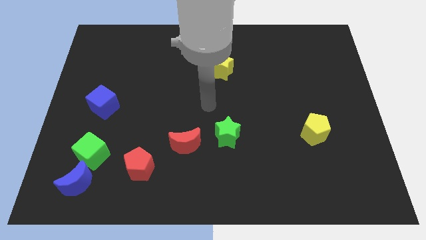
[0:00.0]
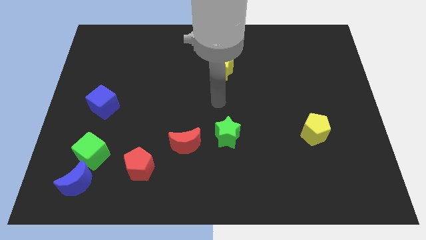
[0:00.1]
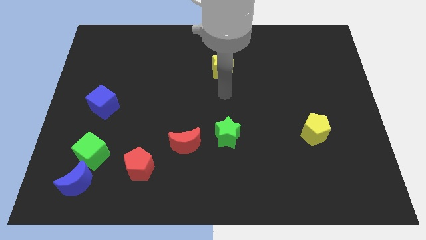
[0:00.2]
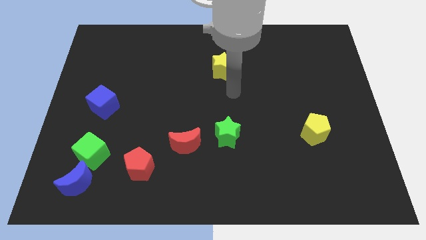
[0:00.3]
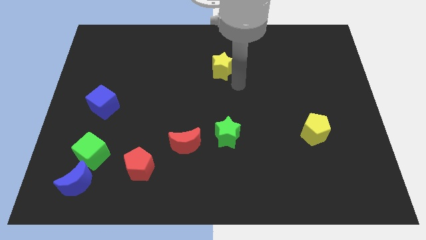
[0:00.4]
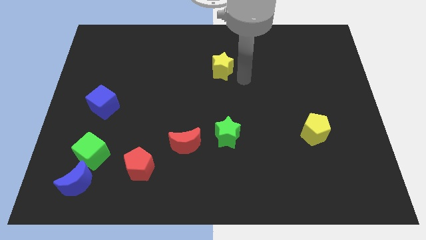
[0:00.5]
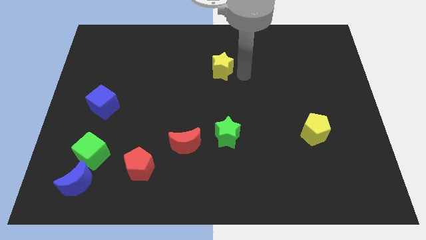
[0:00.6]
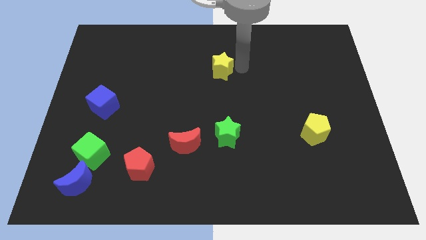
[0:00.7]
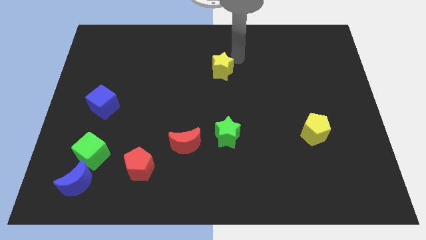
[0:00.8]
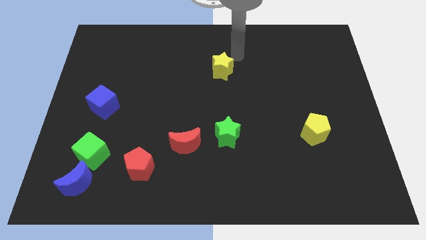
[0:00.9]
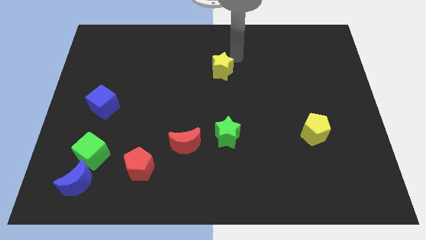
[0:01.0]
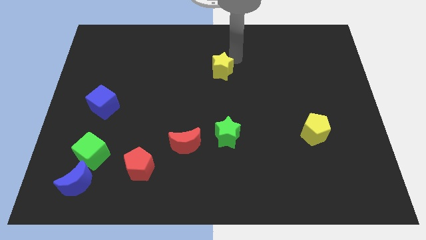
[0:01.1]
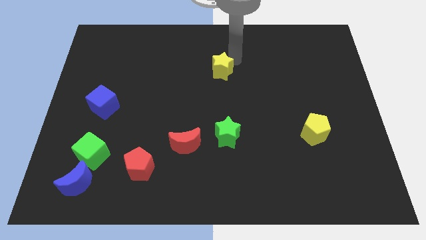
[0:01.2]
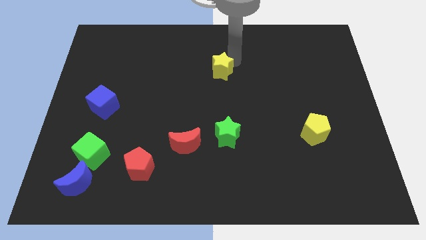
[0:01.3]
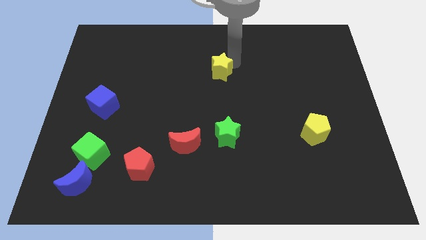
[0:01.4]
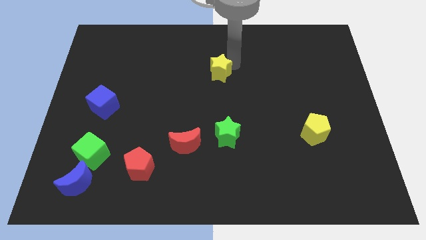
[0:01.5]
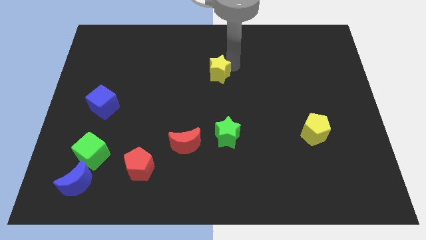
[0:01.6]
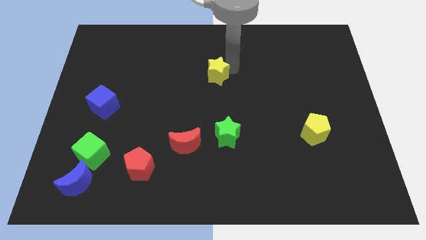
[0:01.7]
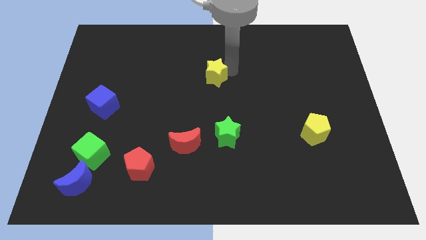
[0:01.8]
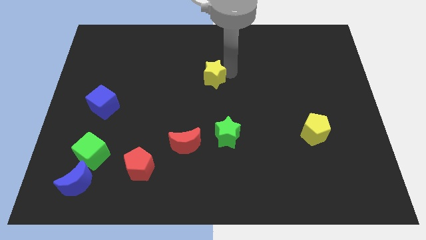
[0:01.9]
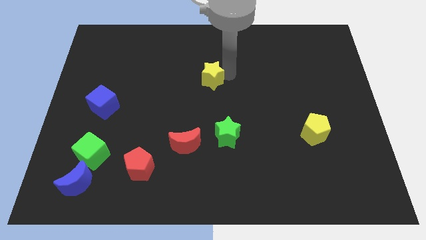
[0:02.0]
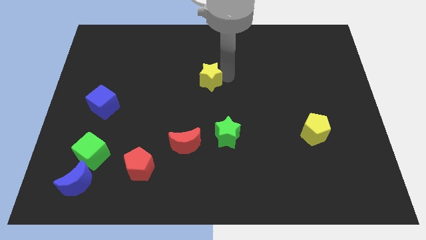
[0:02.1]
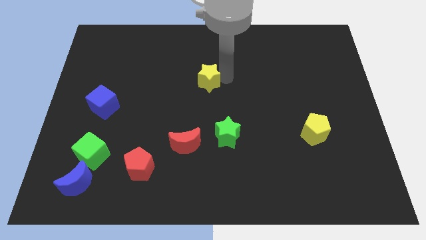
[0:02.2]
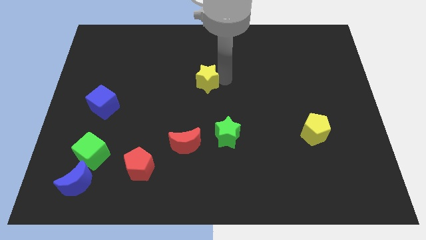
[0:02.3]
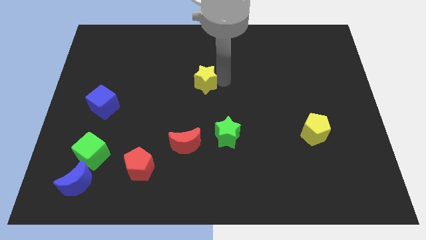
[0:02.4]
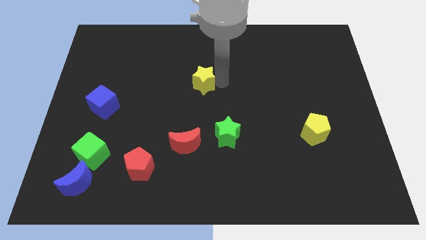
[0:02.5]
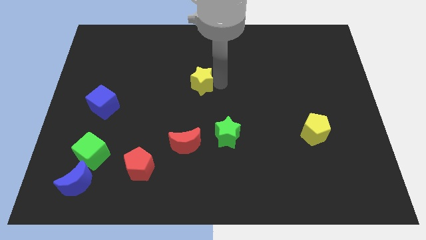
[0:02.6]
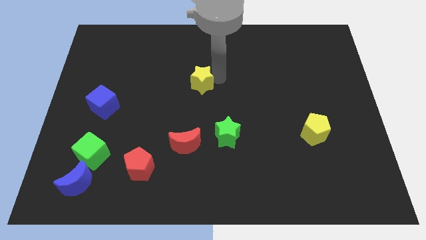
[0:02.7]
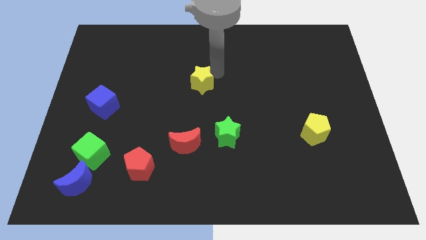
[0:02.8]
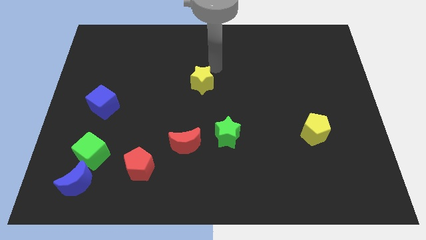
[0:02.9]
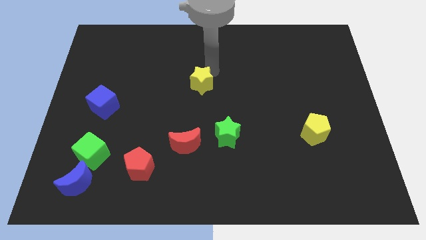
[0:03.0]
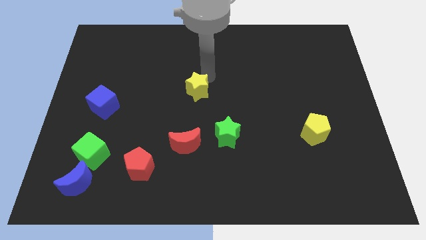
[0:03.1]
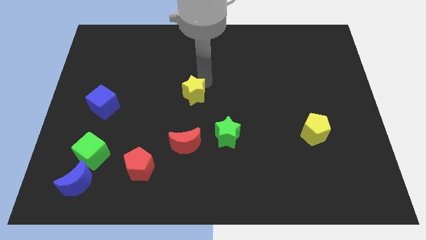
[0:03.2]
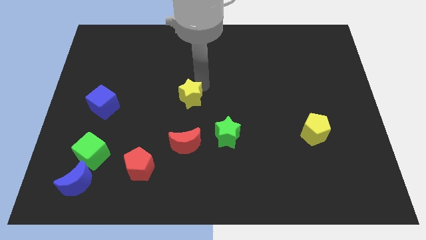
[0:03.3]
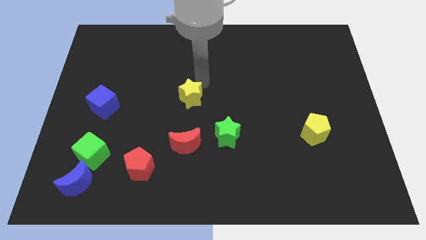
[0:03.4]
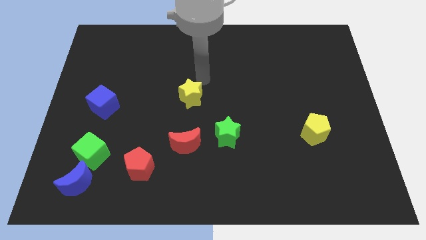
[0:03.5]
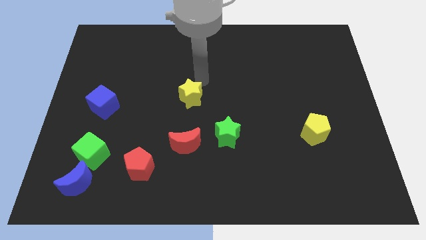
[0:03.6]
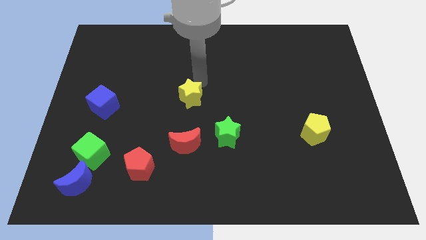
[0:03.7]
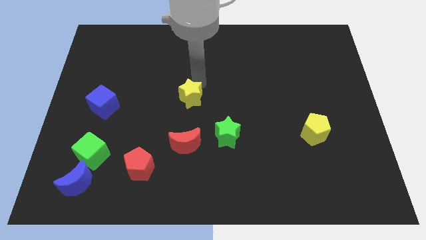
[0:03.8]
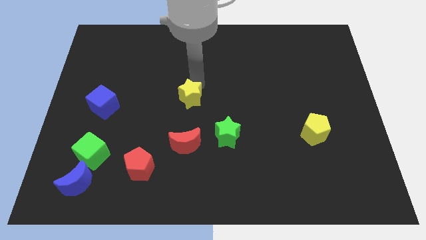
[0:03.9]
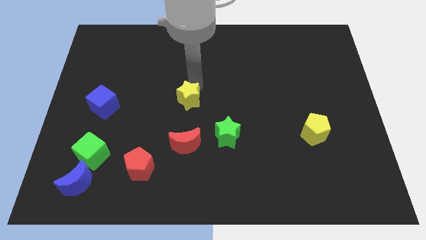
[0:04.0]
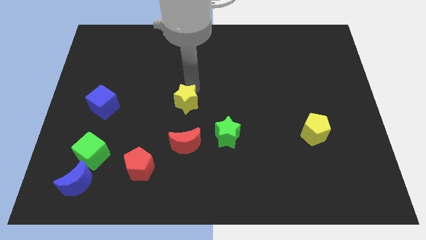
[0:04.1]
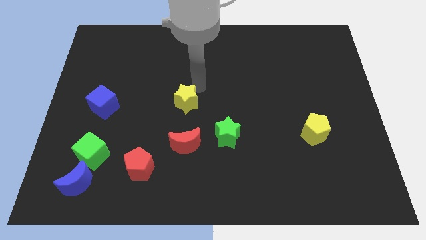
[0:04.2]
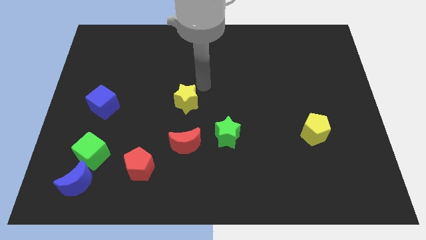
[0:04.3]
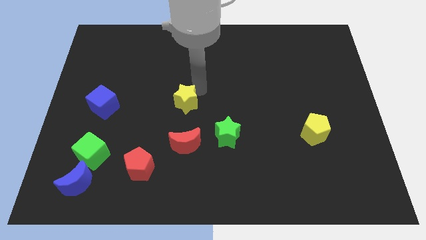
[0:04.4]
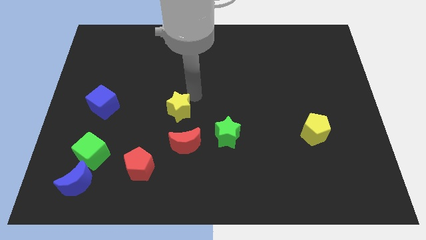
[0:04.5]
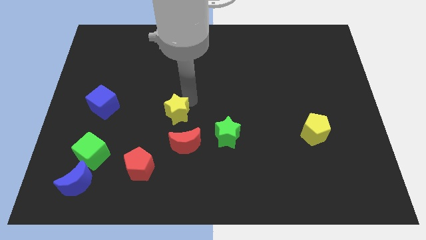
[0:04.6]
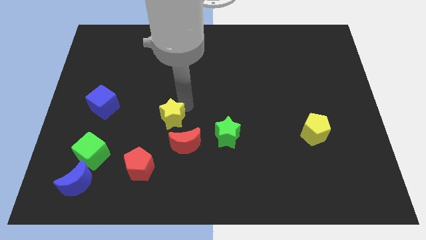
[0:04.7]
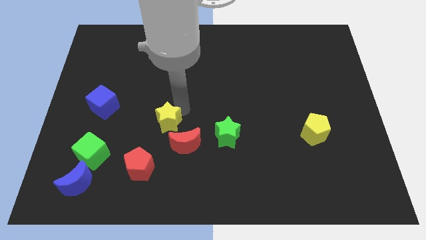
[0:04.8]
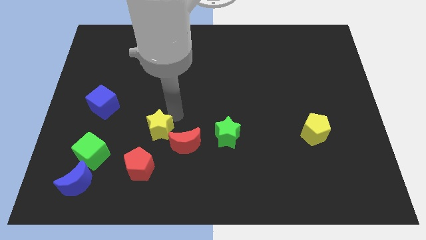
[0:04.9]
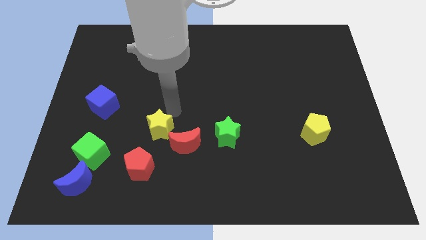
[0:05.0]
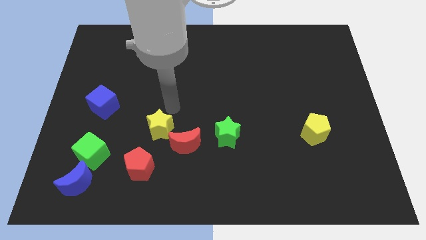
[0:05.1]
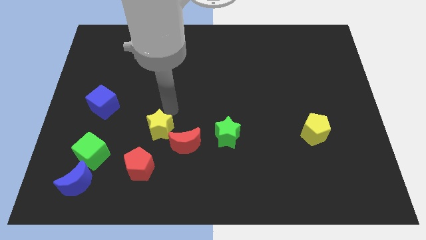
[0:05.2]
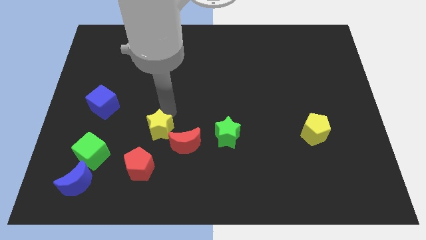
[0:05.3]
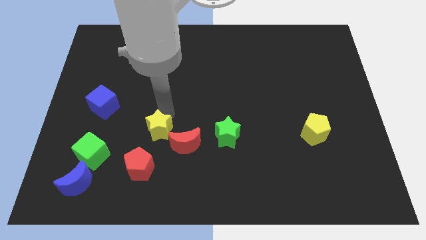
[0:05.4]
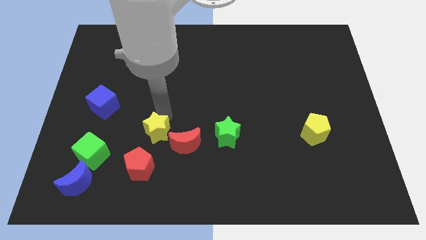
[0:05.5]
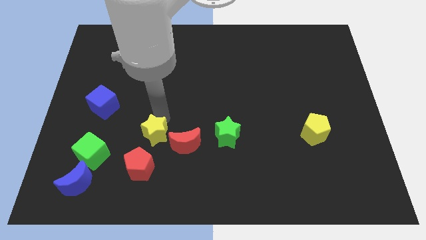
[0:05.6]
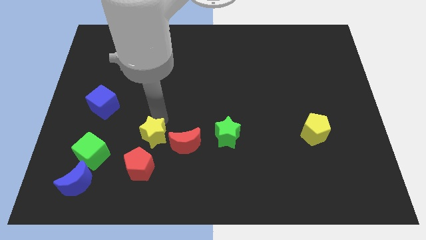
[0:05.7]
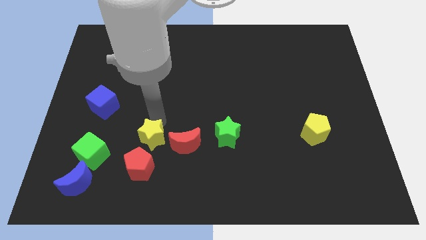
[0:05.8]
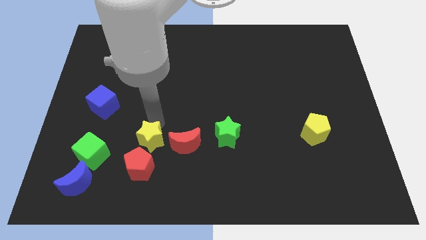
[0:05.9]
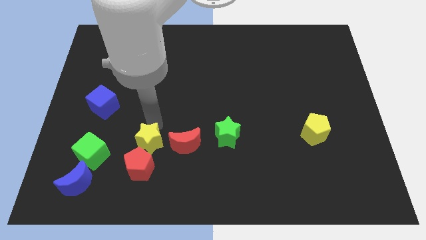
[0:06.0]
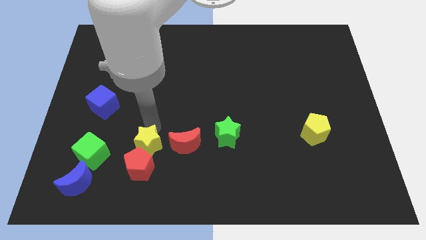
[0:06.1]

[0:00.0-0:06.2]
push the yellow star towards the red pentagon

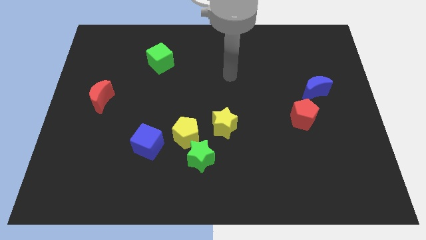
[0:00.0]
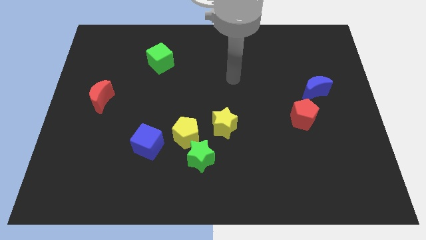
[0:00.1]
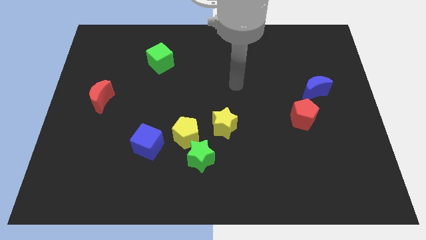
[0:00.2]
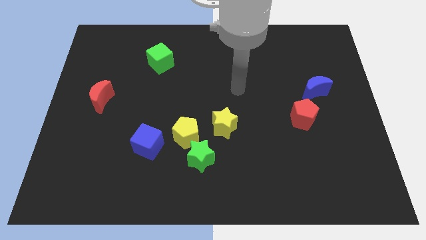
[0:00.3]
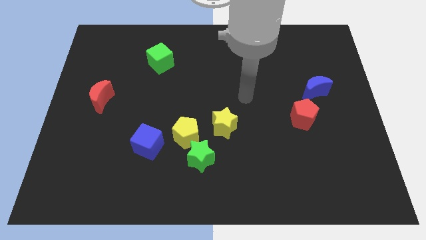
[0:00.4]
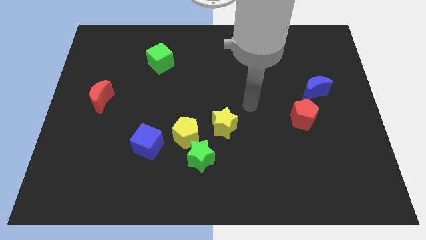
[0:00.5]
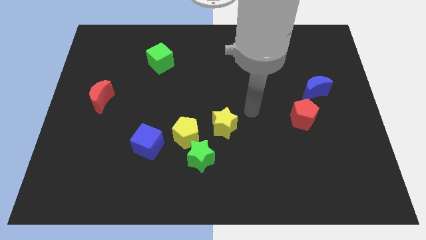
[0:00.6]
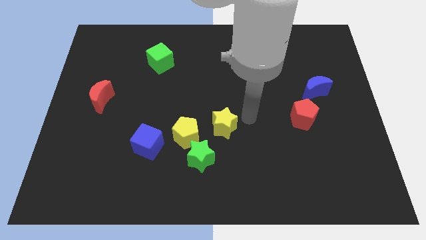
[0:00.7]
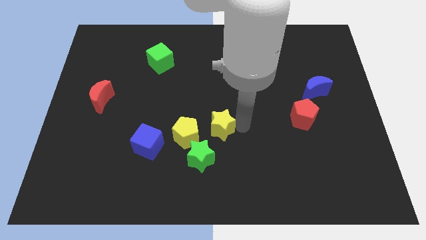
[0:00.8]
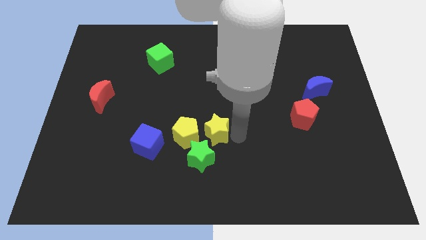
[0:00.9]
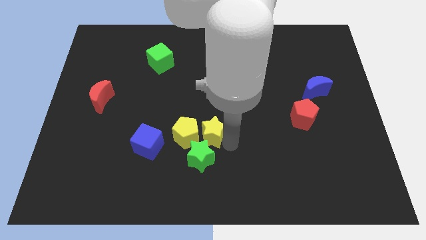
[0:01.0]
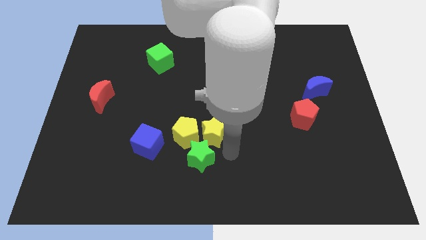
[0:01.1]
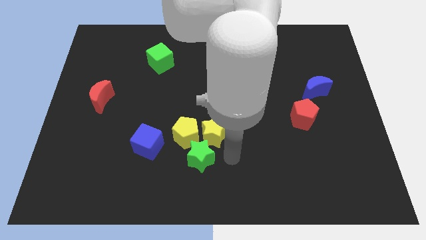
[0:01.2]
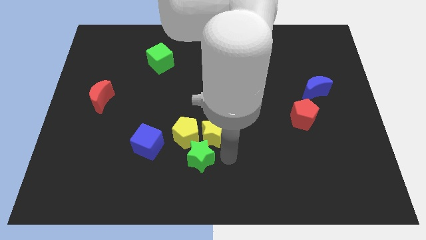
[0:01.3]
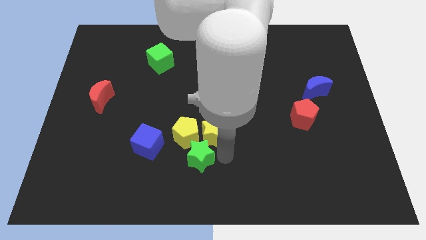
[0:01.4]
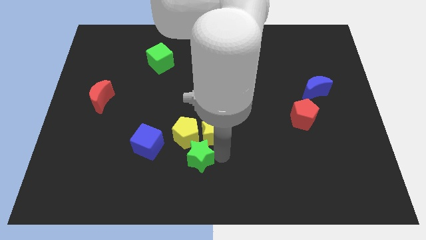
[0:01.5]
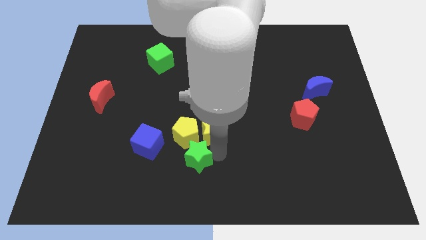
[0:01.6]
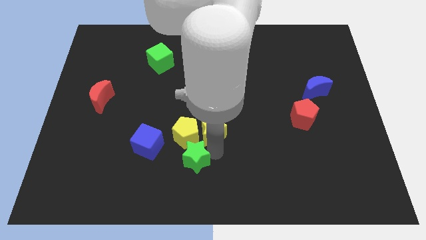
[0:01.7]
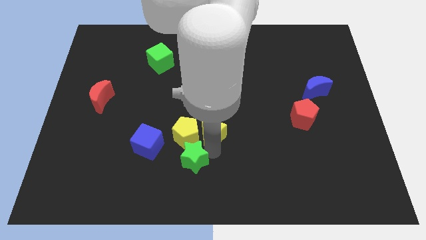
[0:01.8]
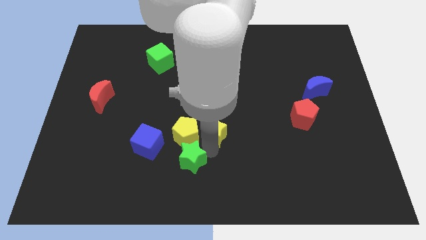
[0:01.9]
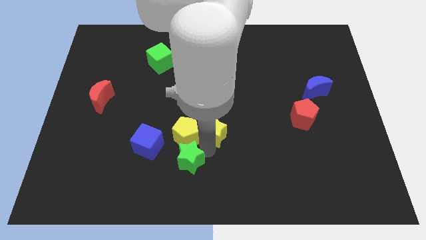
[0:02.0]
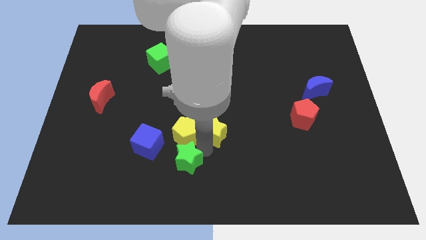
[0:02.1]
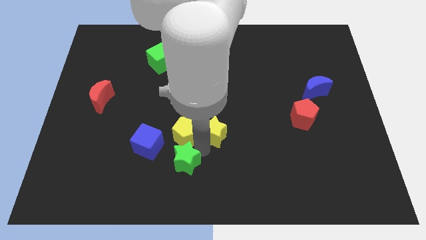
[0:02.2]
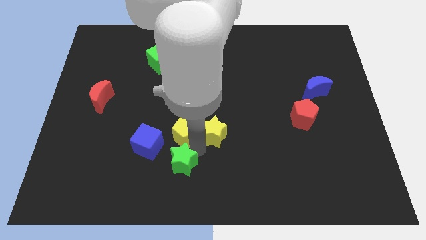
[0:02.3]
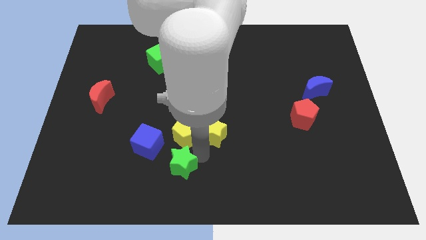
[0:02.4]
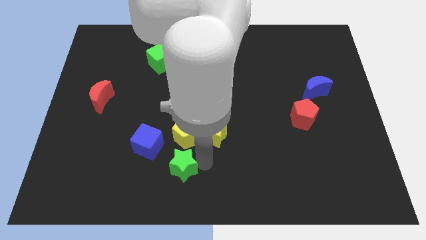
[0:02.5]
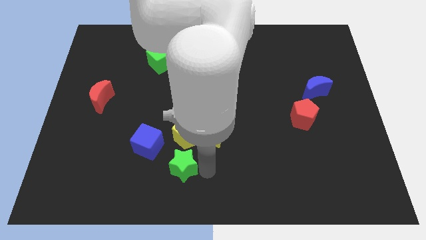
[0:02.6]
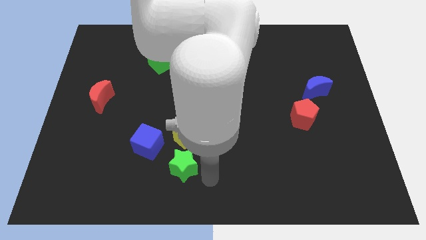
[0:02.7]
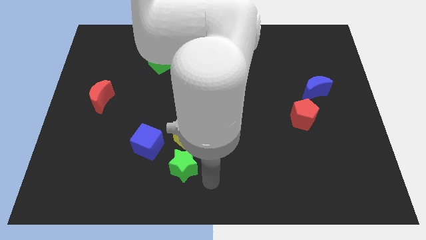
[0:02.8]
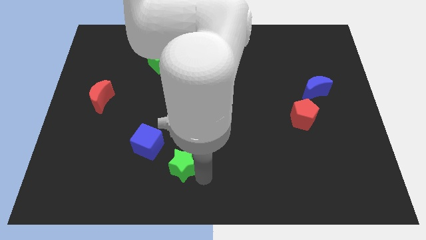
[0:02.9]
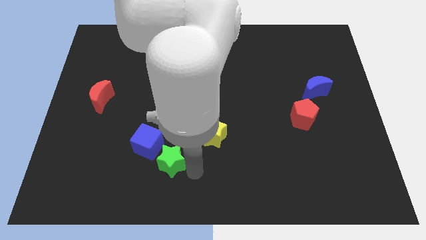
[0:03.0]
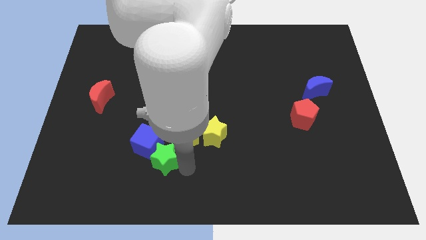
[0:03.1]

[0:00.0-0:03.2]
put the green star next to the blue cube
